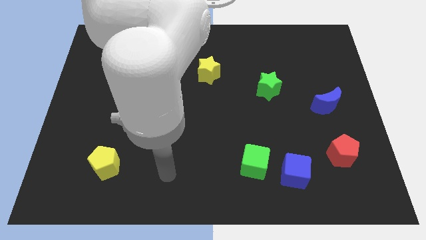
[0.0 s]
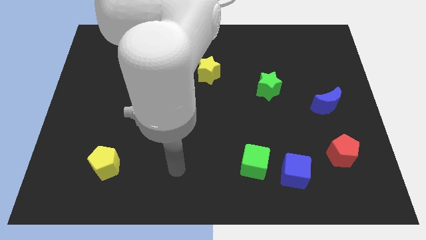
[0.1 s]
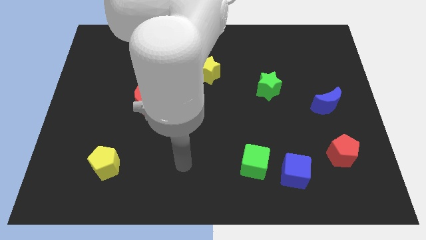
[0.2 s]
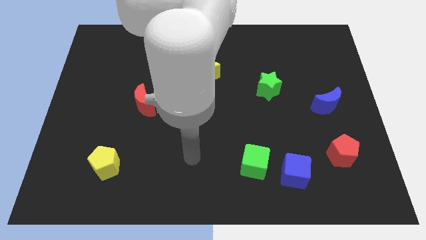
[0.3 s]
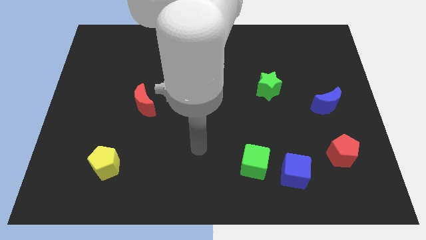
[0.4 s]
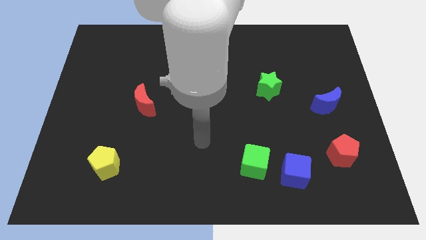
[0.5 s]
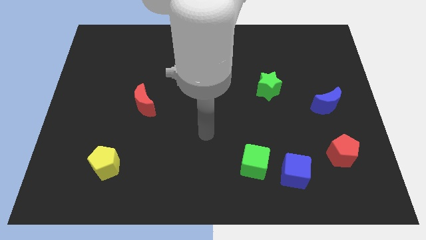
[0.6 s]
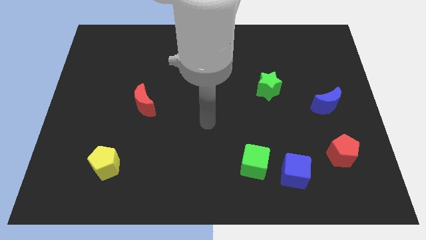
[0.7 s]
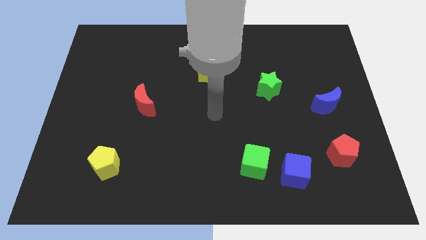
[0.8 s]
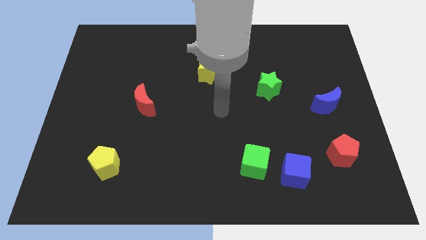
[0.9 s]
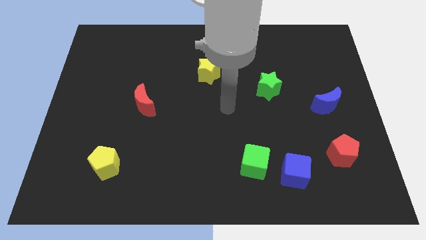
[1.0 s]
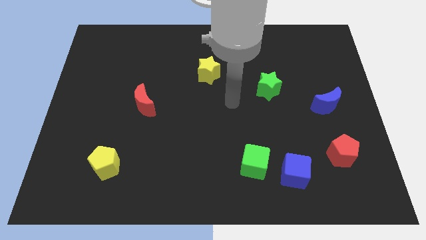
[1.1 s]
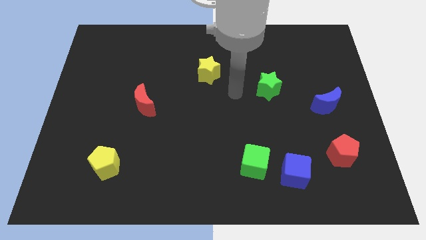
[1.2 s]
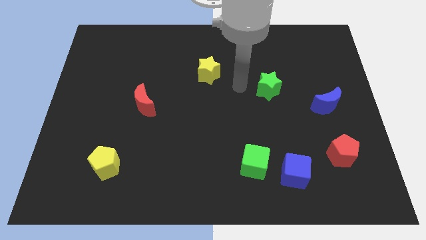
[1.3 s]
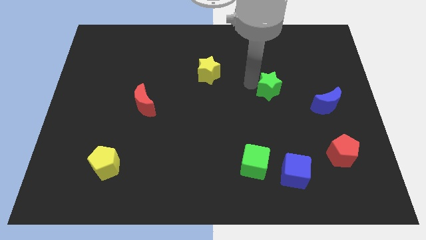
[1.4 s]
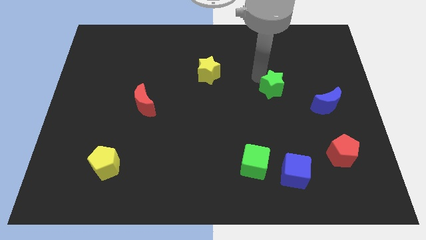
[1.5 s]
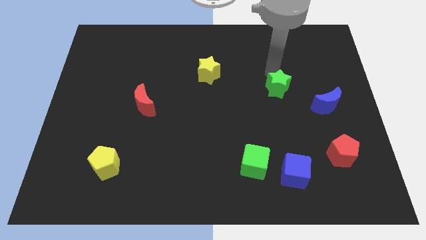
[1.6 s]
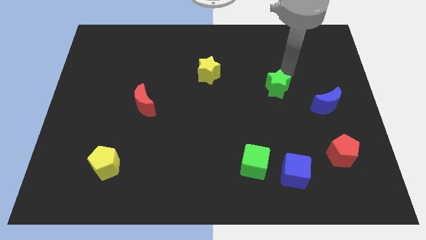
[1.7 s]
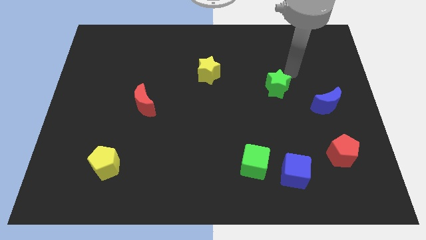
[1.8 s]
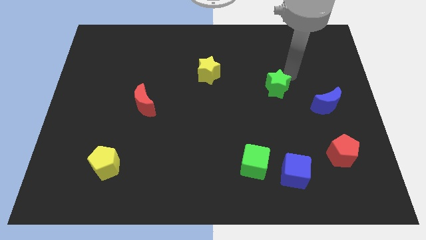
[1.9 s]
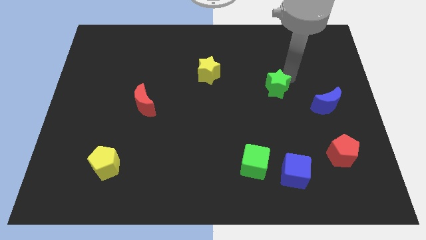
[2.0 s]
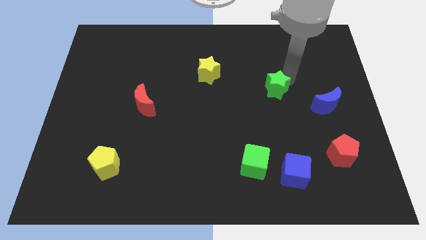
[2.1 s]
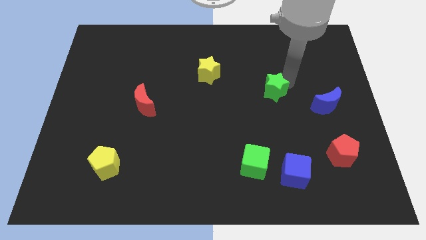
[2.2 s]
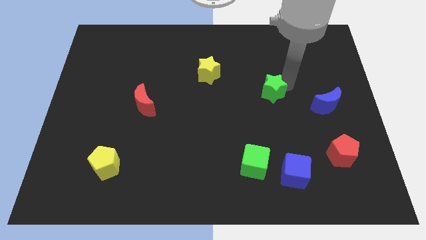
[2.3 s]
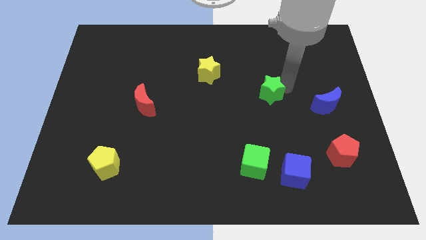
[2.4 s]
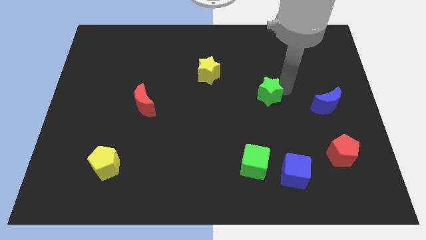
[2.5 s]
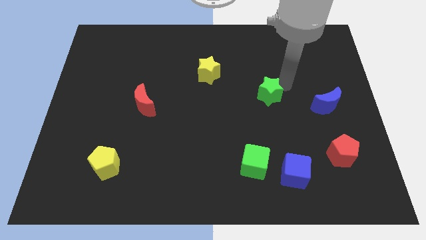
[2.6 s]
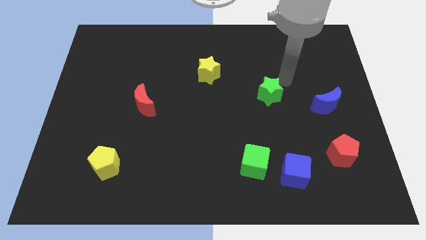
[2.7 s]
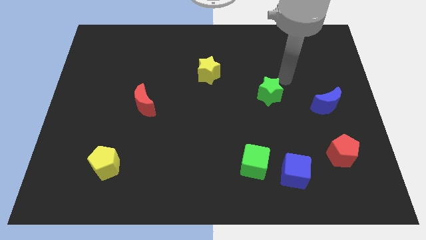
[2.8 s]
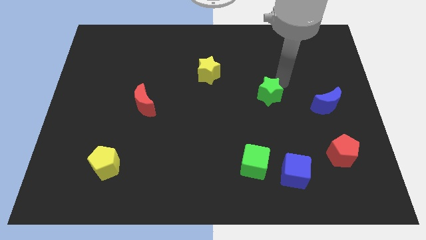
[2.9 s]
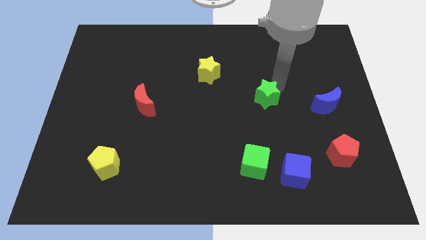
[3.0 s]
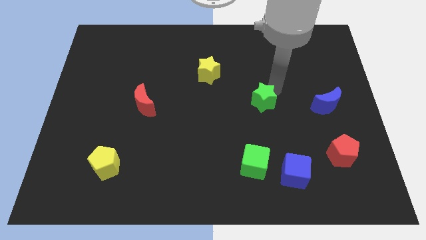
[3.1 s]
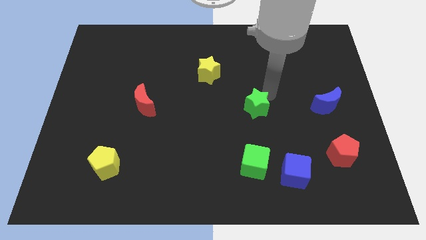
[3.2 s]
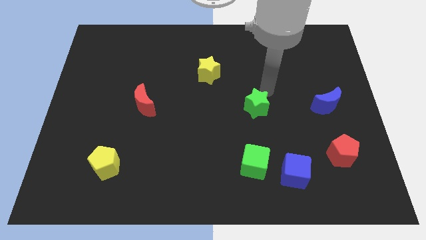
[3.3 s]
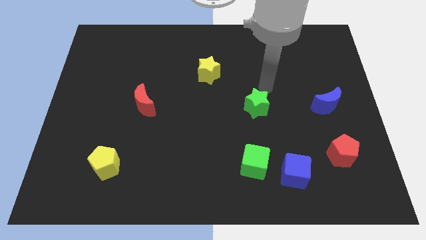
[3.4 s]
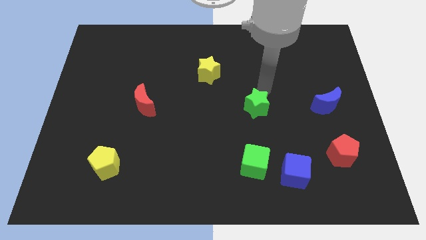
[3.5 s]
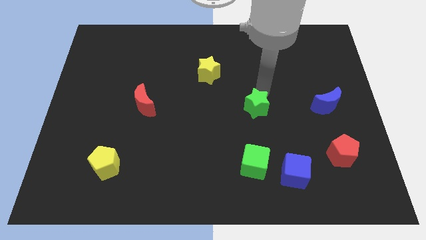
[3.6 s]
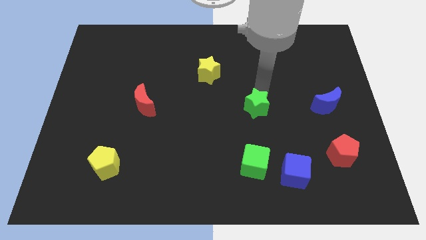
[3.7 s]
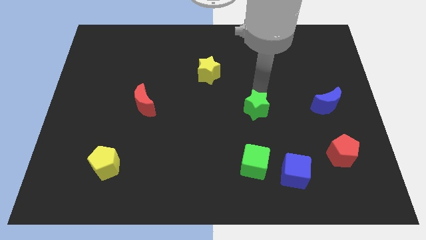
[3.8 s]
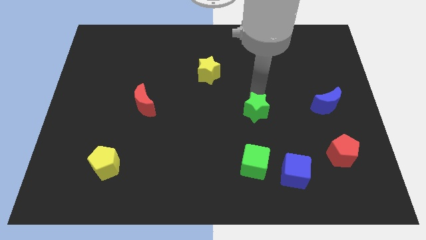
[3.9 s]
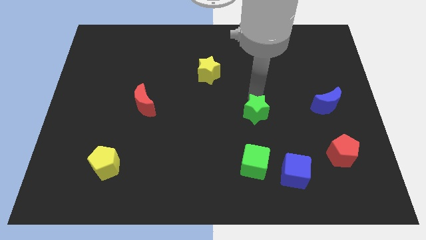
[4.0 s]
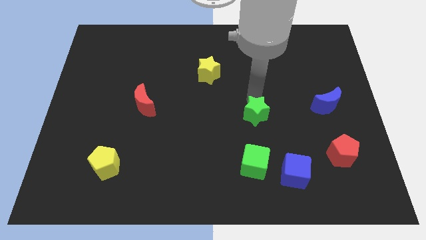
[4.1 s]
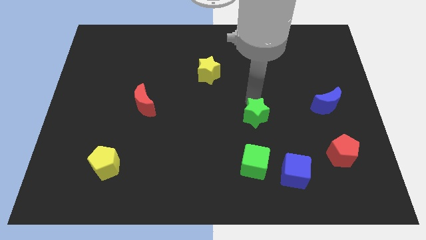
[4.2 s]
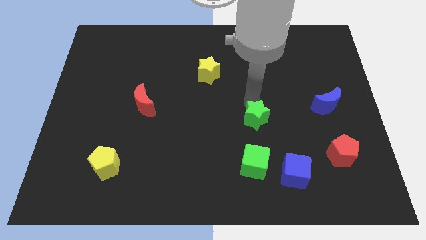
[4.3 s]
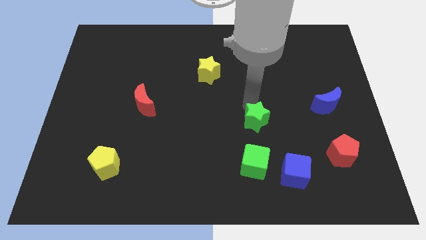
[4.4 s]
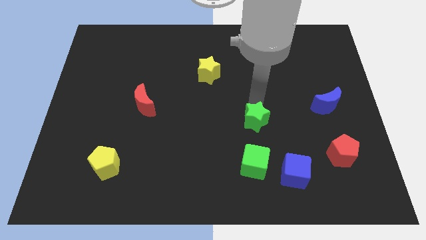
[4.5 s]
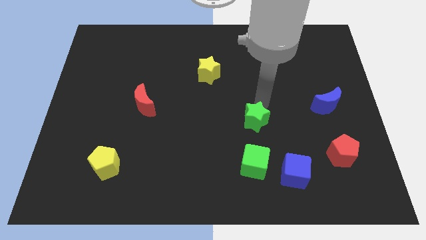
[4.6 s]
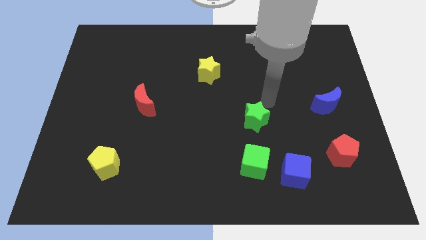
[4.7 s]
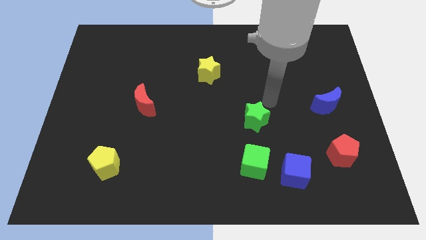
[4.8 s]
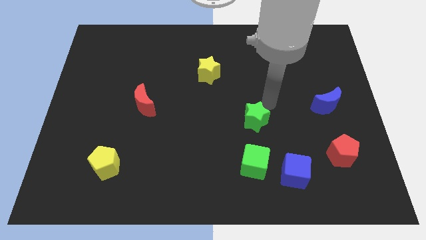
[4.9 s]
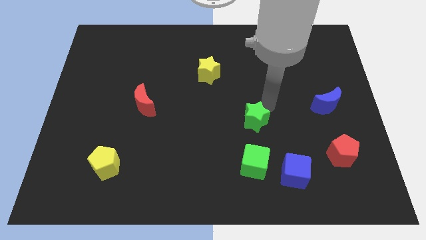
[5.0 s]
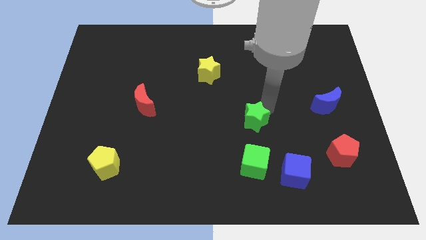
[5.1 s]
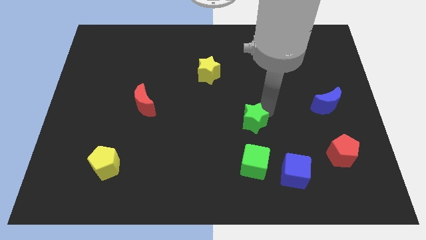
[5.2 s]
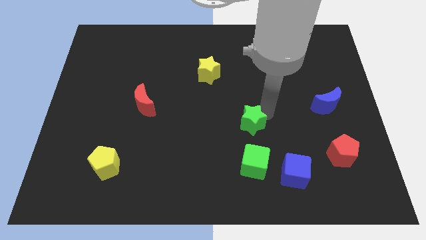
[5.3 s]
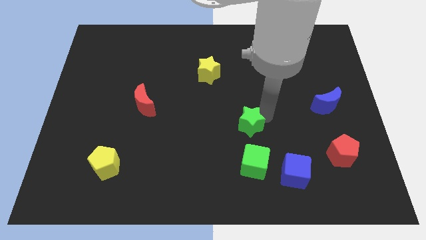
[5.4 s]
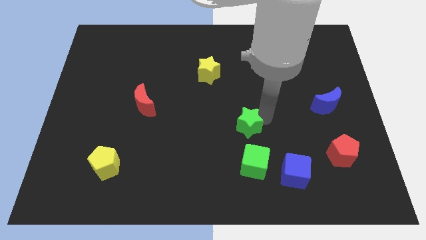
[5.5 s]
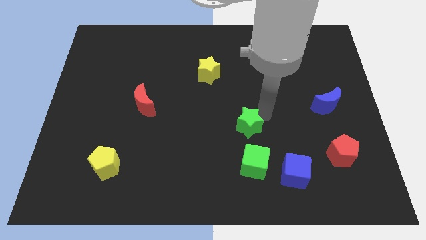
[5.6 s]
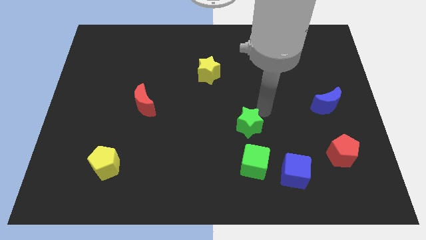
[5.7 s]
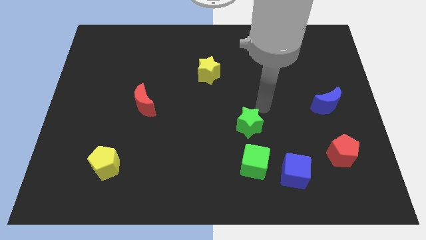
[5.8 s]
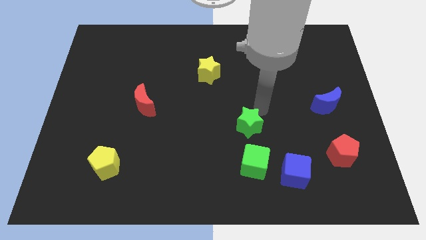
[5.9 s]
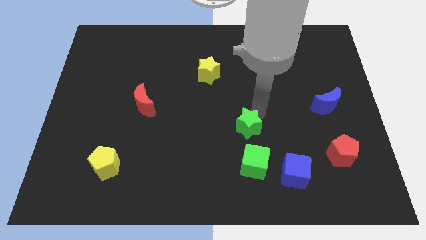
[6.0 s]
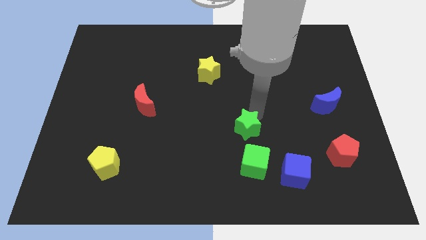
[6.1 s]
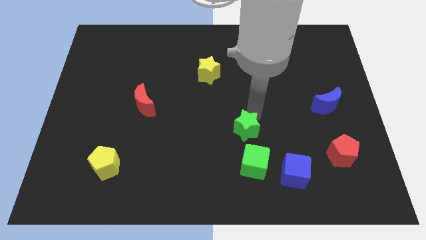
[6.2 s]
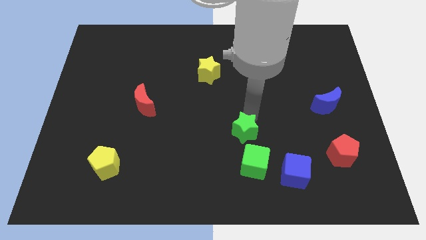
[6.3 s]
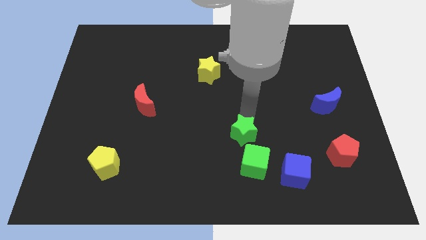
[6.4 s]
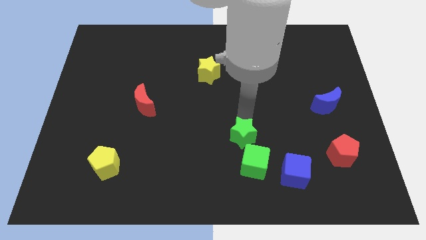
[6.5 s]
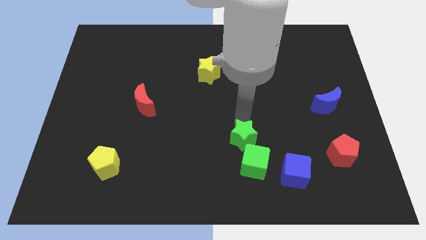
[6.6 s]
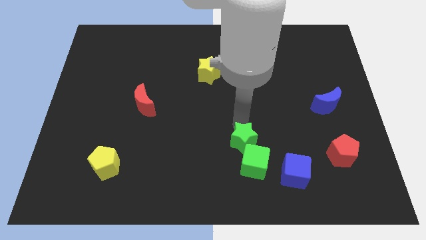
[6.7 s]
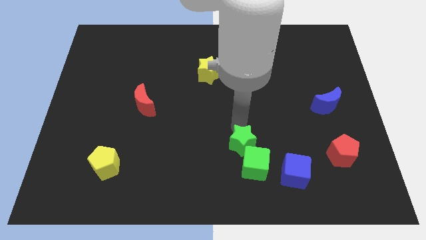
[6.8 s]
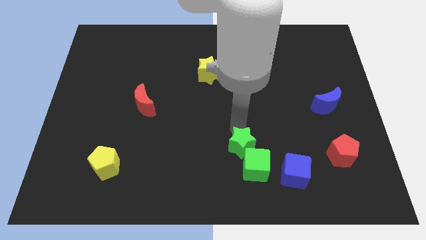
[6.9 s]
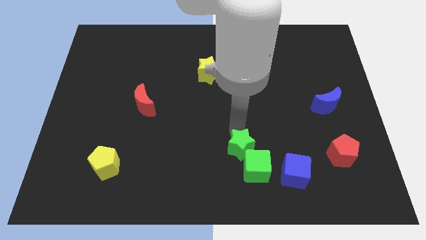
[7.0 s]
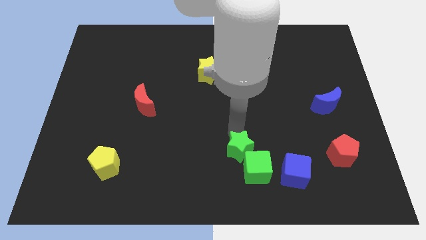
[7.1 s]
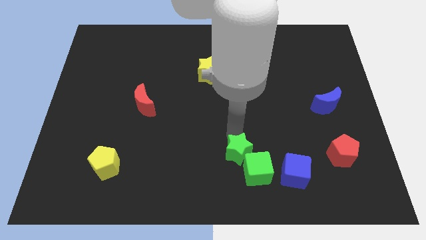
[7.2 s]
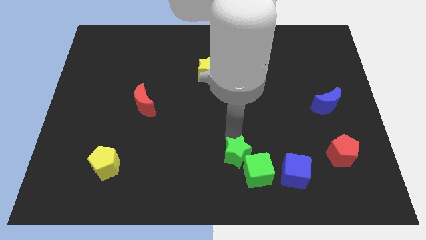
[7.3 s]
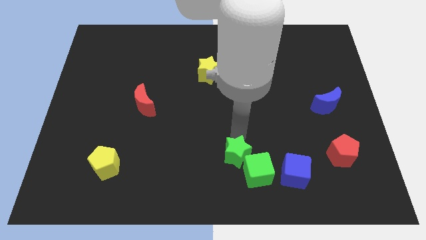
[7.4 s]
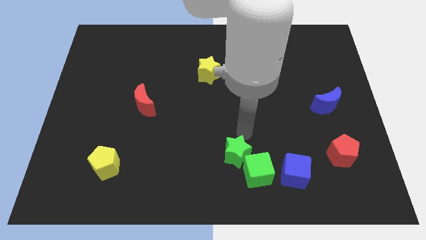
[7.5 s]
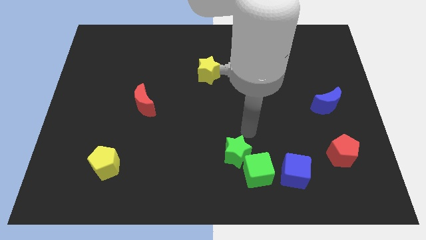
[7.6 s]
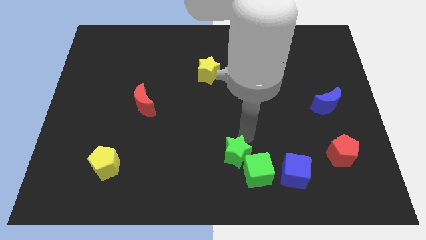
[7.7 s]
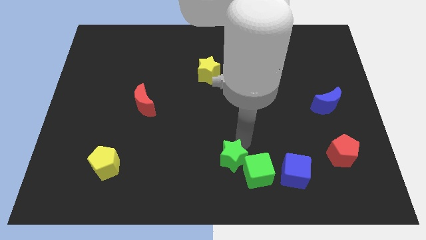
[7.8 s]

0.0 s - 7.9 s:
move the green star to the bottom side
